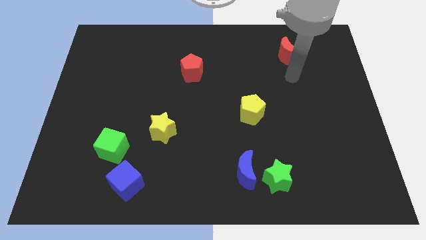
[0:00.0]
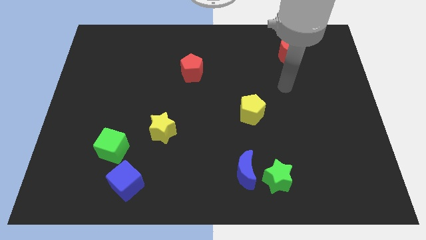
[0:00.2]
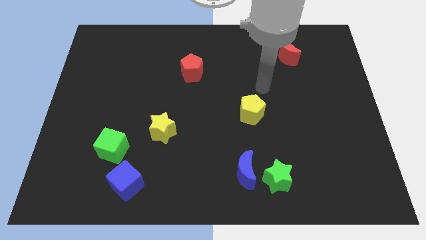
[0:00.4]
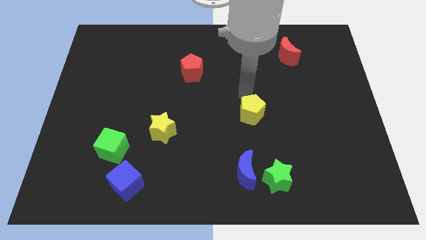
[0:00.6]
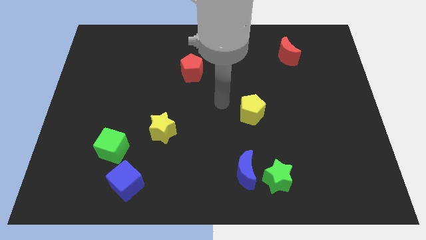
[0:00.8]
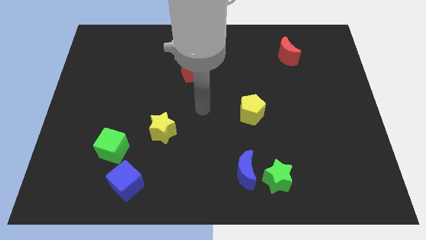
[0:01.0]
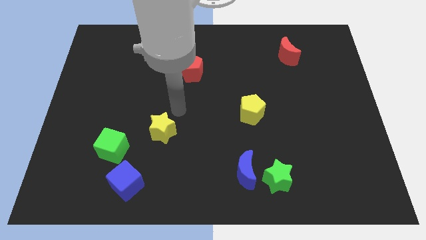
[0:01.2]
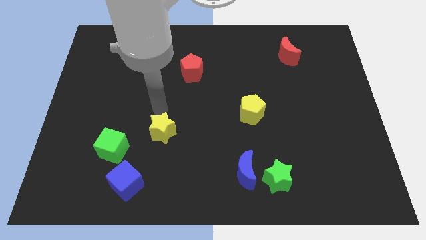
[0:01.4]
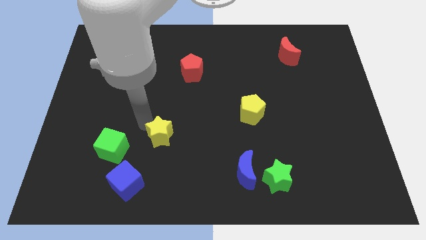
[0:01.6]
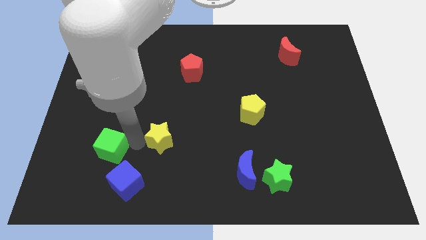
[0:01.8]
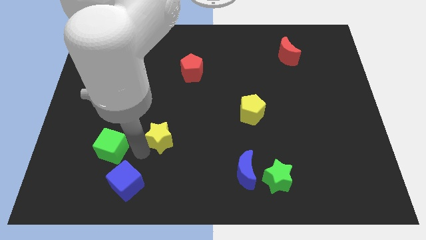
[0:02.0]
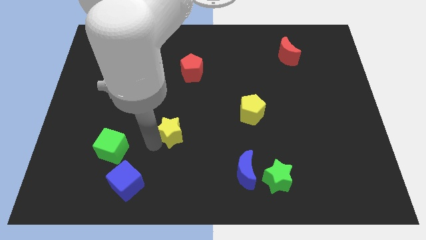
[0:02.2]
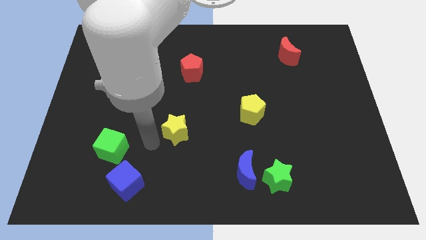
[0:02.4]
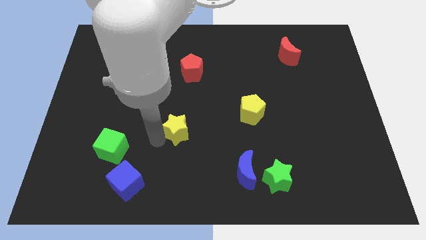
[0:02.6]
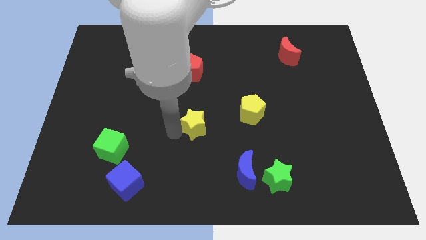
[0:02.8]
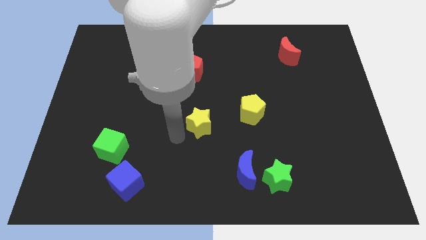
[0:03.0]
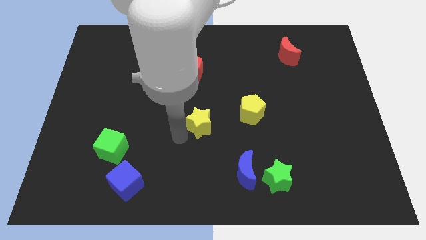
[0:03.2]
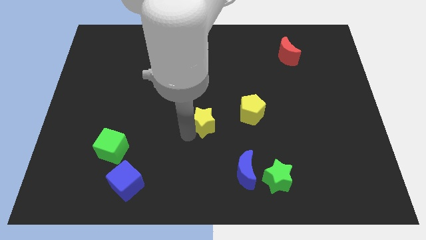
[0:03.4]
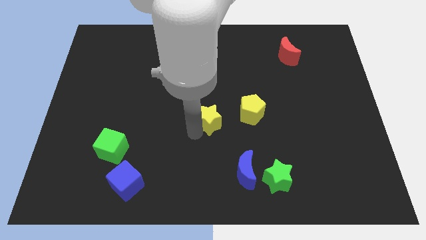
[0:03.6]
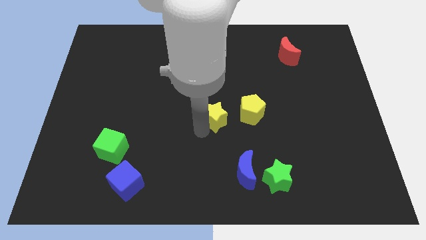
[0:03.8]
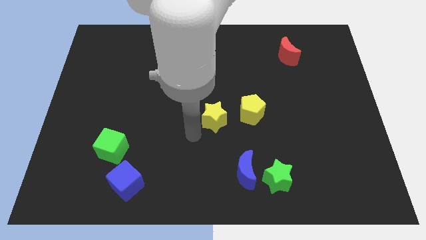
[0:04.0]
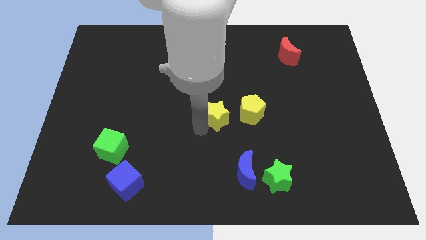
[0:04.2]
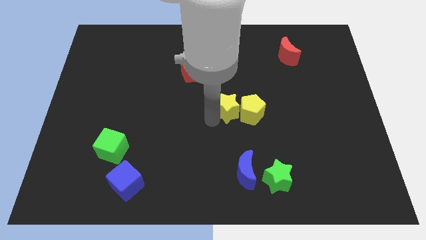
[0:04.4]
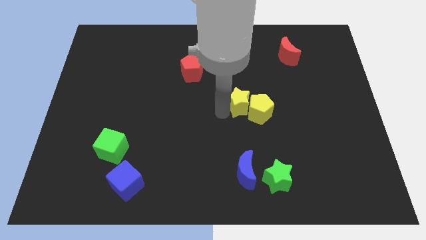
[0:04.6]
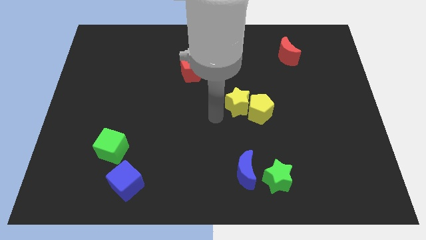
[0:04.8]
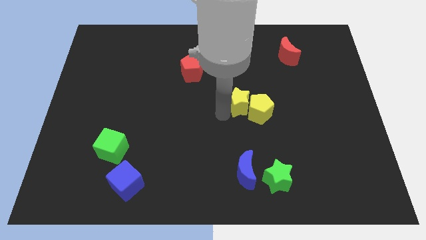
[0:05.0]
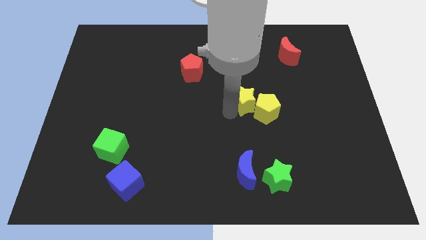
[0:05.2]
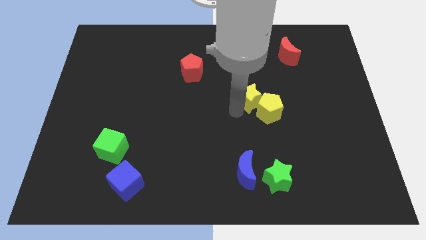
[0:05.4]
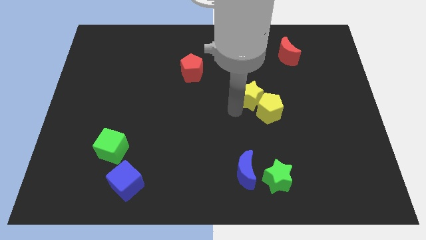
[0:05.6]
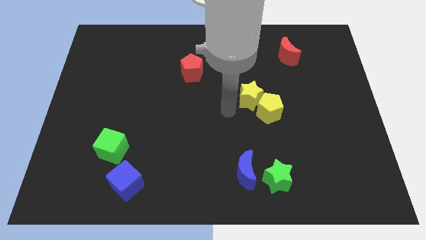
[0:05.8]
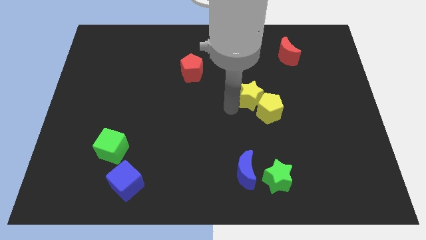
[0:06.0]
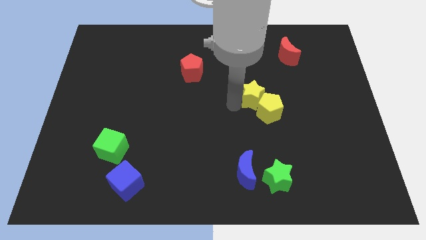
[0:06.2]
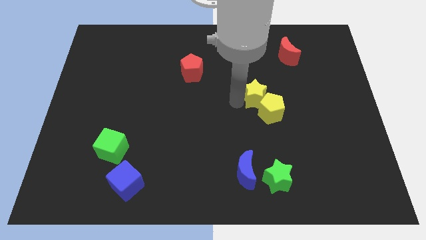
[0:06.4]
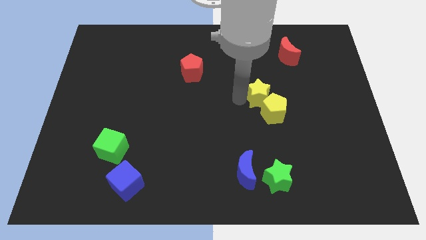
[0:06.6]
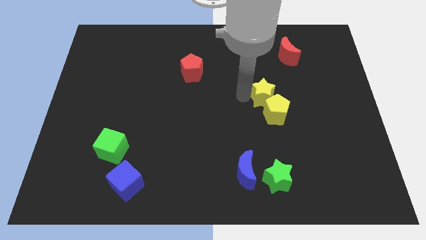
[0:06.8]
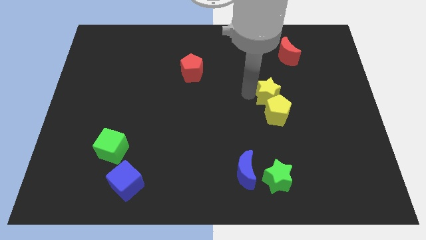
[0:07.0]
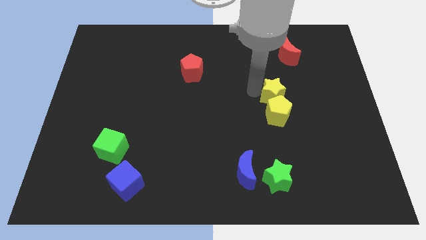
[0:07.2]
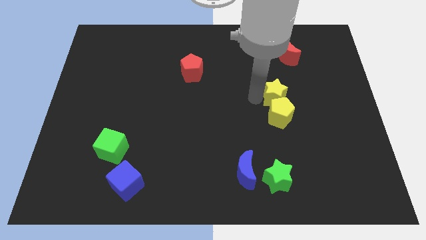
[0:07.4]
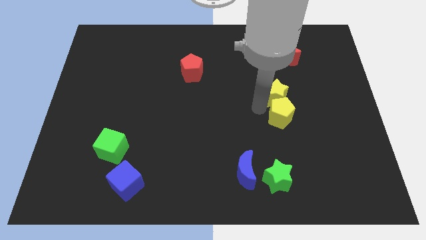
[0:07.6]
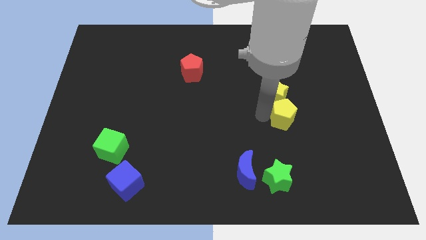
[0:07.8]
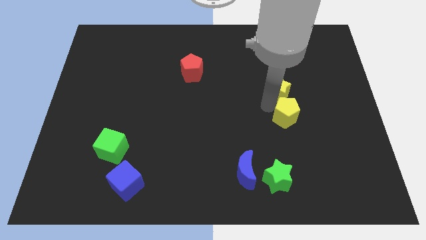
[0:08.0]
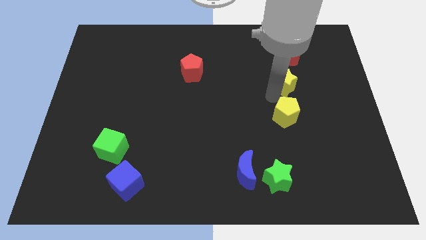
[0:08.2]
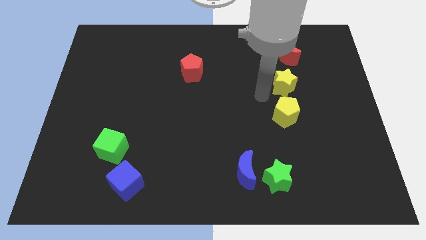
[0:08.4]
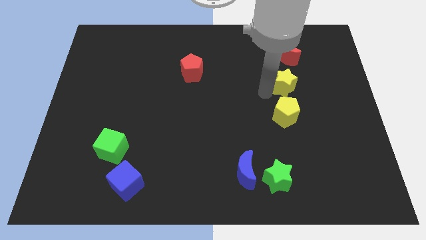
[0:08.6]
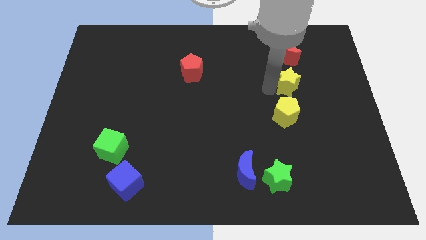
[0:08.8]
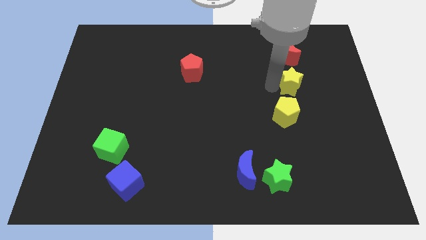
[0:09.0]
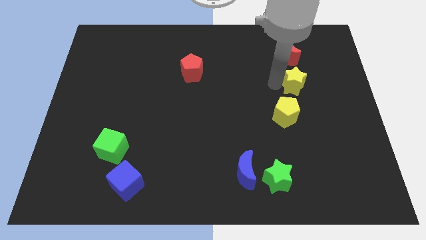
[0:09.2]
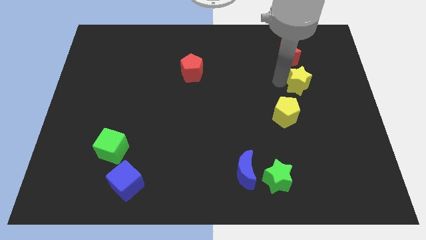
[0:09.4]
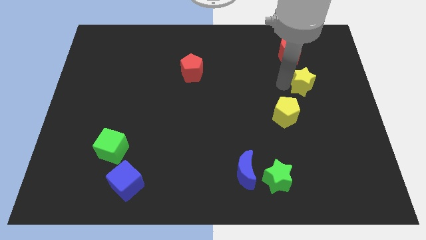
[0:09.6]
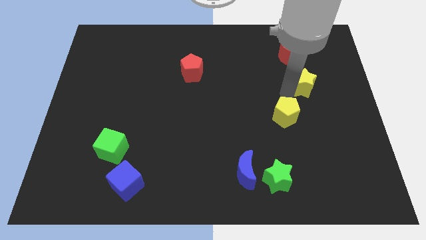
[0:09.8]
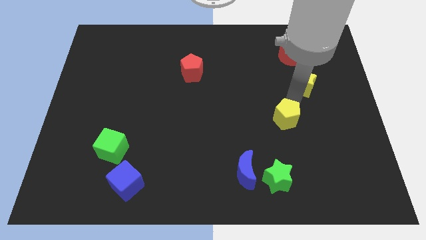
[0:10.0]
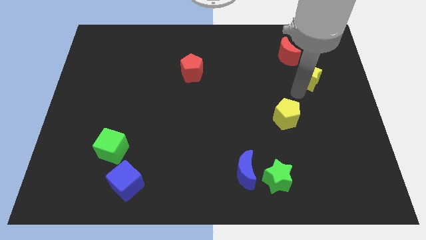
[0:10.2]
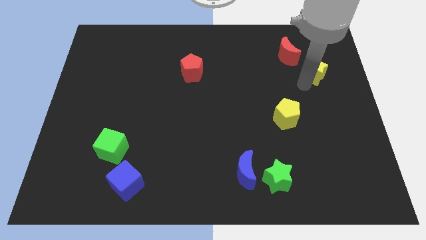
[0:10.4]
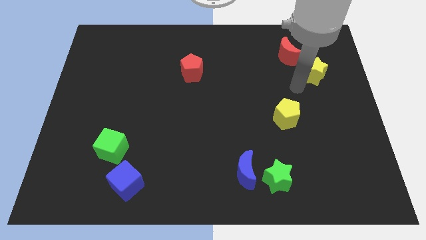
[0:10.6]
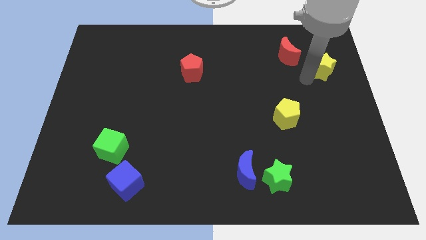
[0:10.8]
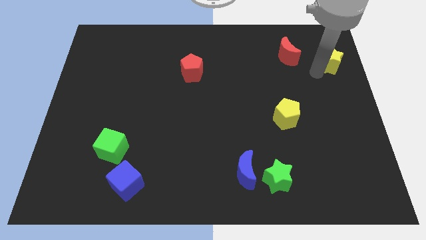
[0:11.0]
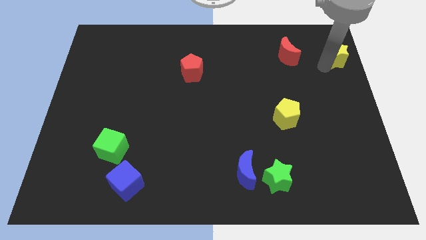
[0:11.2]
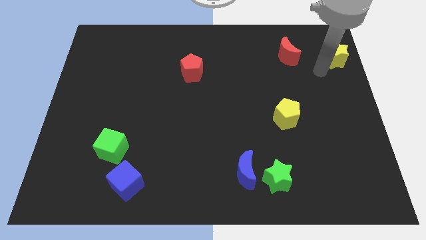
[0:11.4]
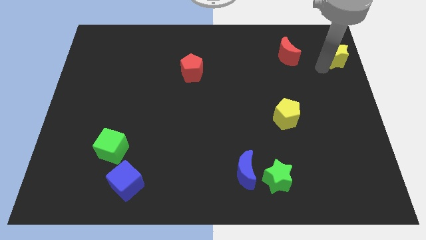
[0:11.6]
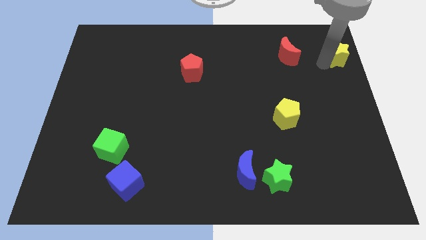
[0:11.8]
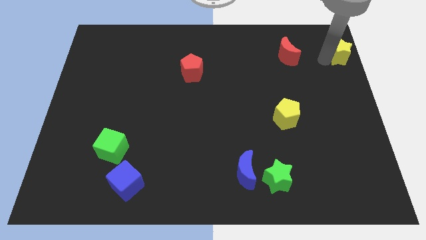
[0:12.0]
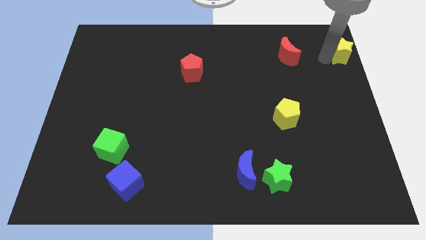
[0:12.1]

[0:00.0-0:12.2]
push the yellow star to the top right

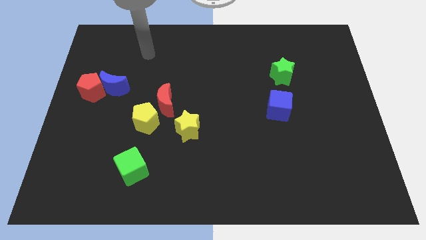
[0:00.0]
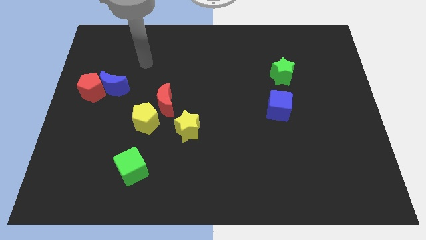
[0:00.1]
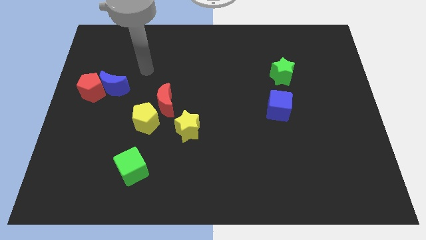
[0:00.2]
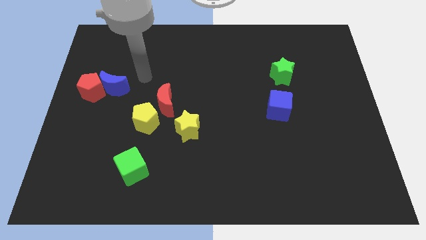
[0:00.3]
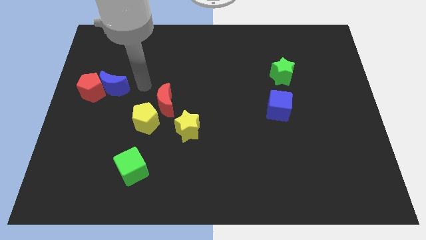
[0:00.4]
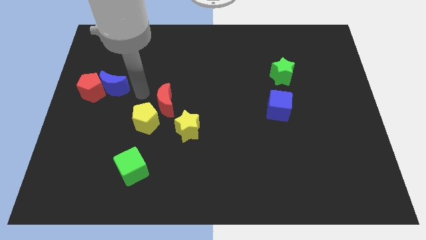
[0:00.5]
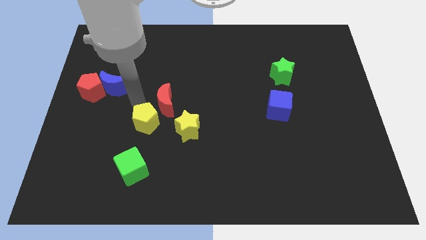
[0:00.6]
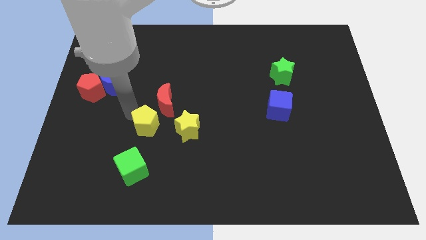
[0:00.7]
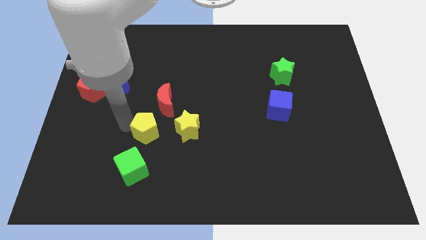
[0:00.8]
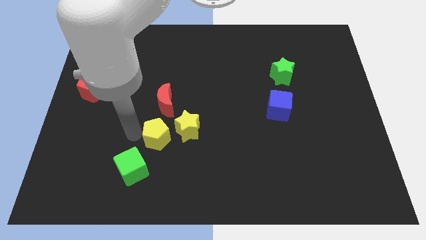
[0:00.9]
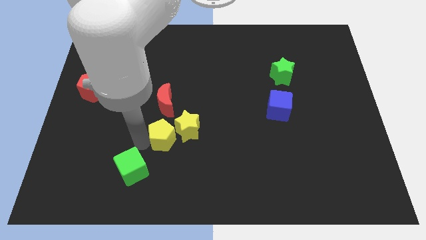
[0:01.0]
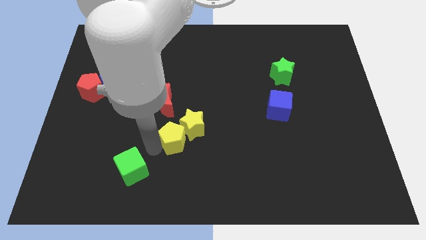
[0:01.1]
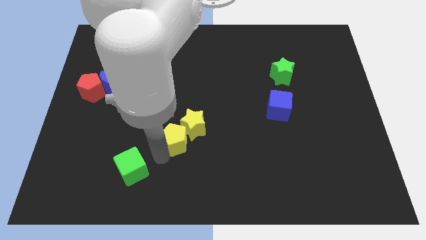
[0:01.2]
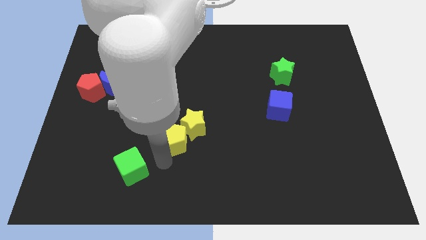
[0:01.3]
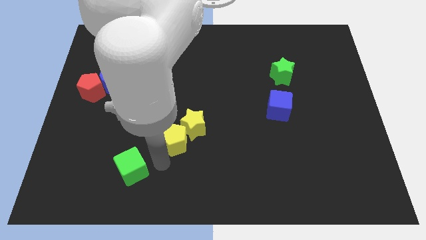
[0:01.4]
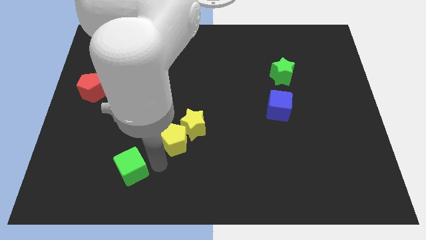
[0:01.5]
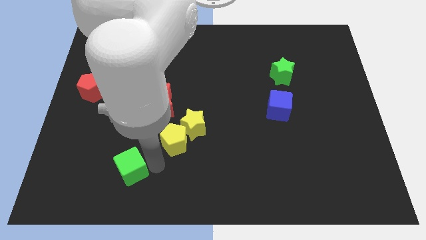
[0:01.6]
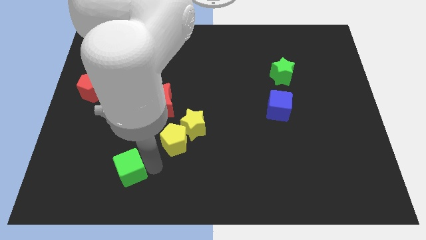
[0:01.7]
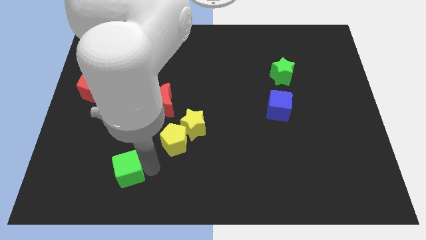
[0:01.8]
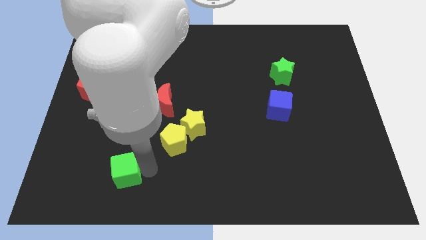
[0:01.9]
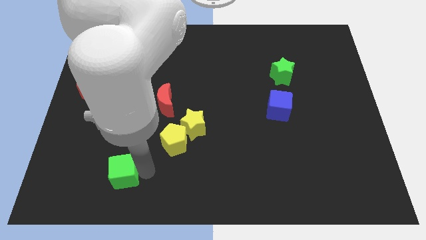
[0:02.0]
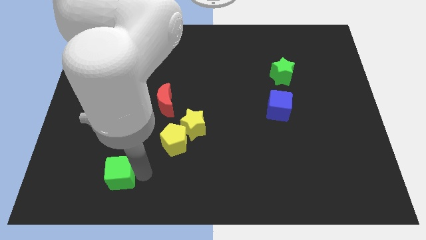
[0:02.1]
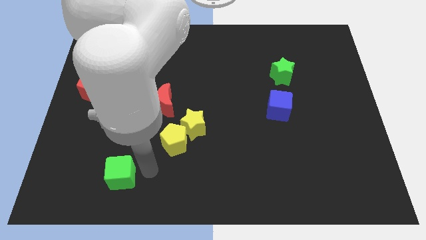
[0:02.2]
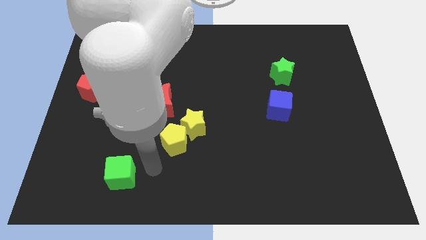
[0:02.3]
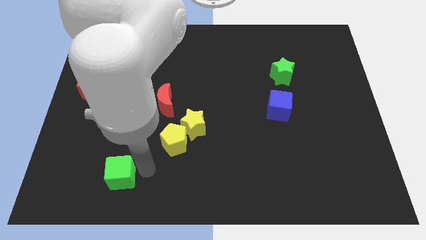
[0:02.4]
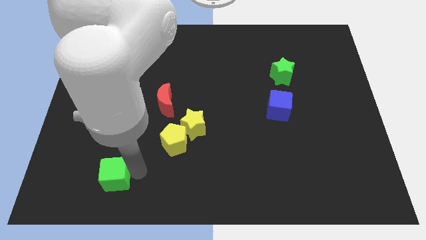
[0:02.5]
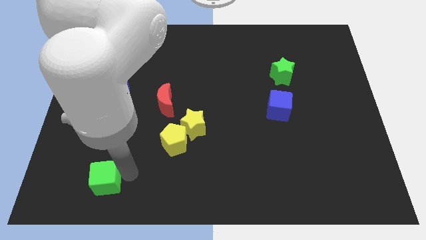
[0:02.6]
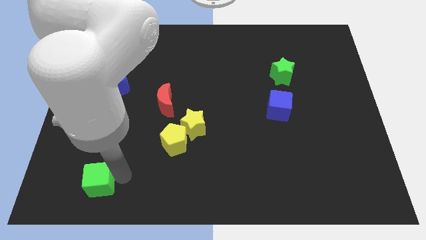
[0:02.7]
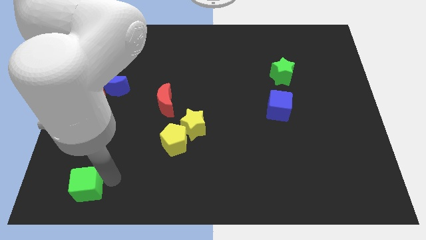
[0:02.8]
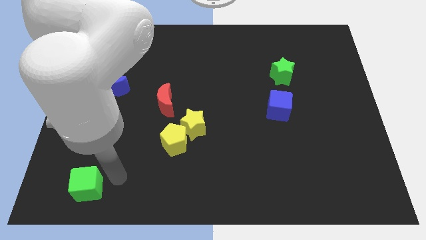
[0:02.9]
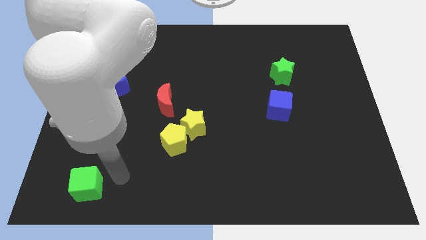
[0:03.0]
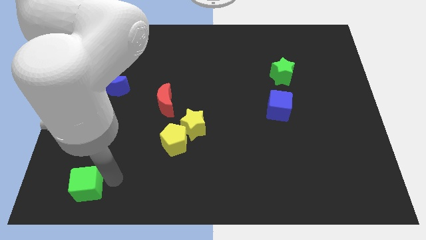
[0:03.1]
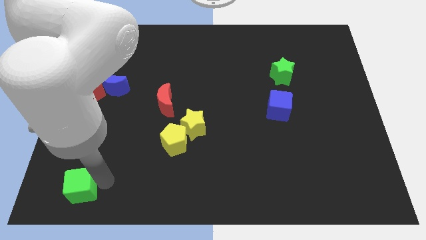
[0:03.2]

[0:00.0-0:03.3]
put the green cube to the lower left corner
